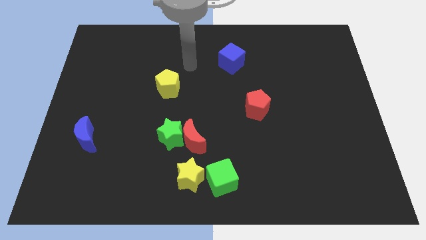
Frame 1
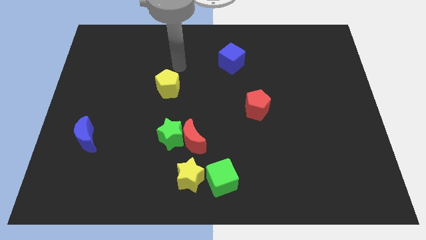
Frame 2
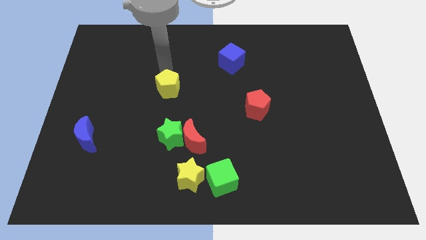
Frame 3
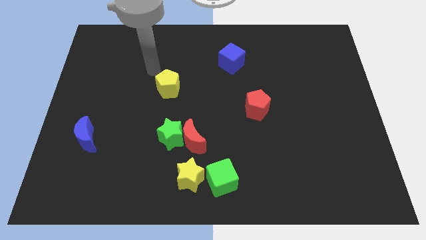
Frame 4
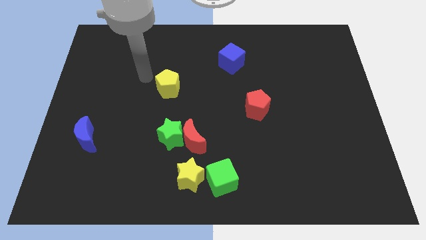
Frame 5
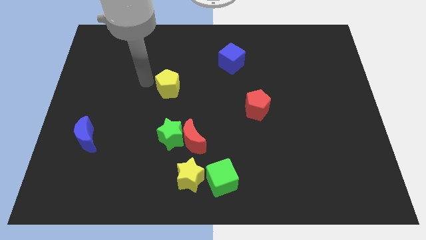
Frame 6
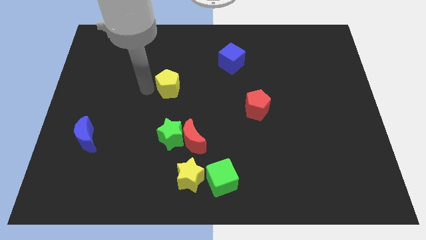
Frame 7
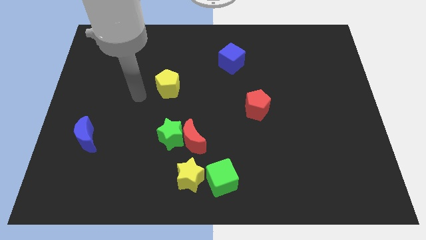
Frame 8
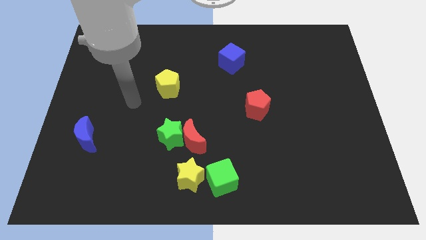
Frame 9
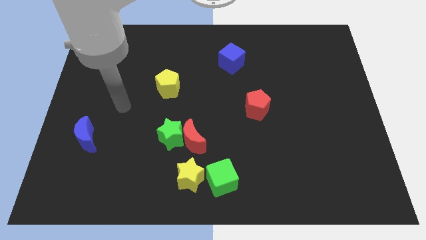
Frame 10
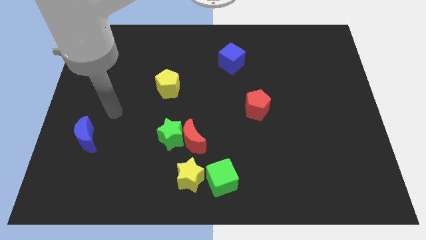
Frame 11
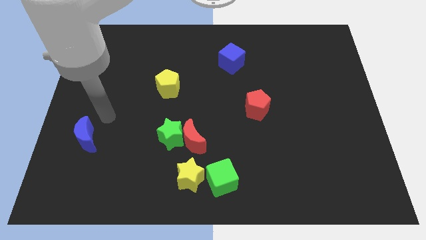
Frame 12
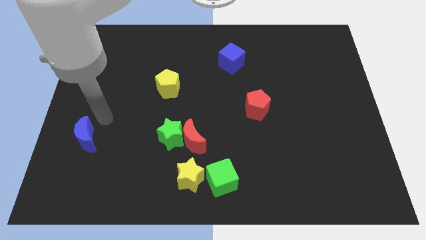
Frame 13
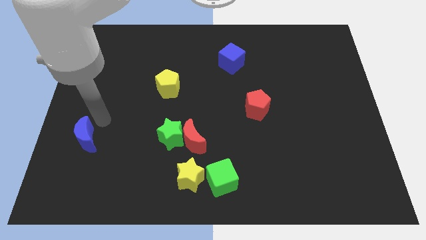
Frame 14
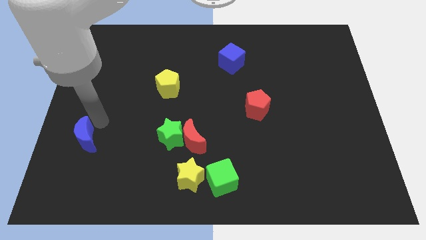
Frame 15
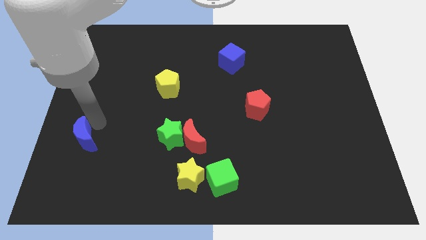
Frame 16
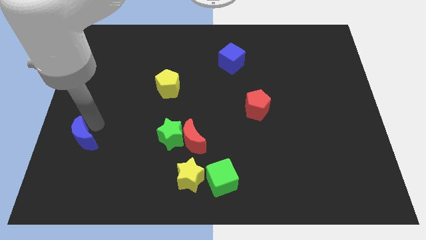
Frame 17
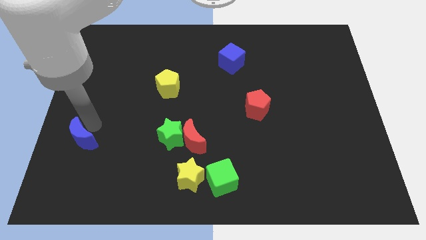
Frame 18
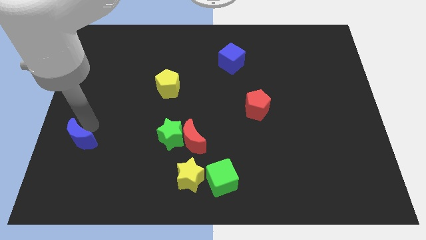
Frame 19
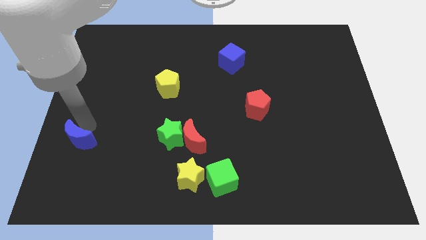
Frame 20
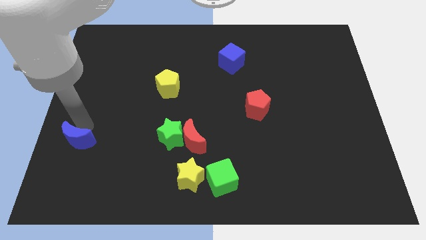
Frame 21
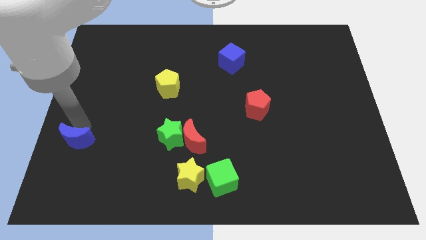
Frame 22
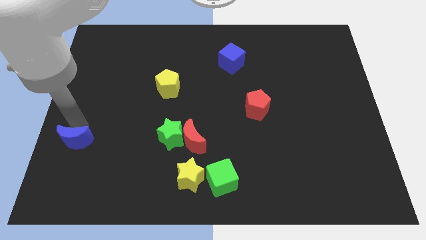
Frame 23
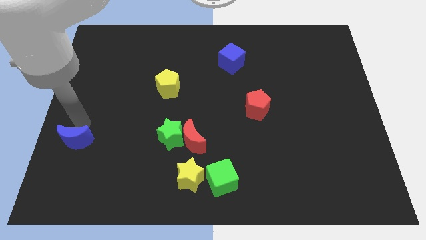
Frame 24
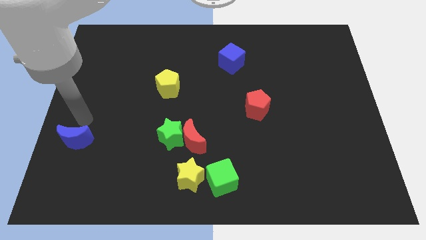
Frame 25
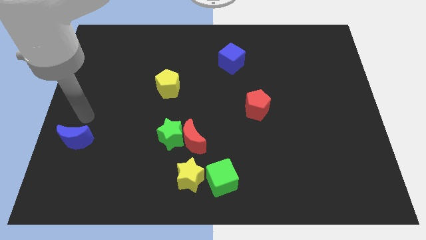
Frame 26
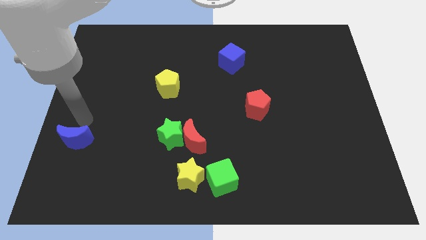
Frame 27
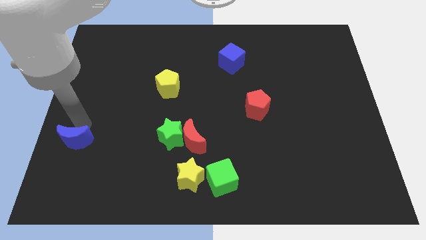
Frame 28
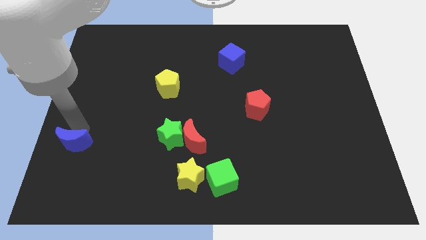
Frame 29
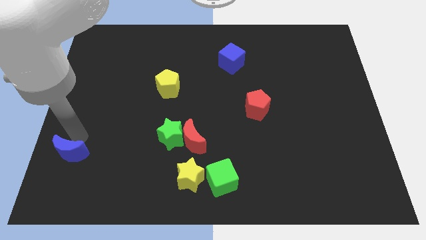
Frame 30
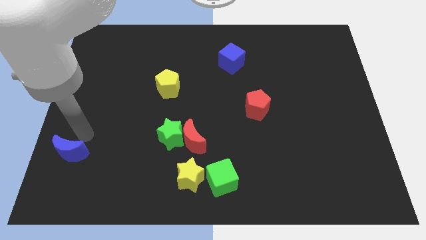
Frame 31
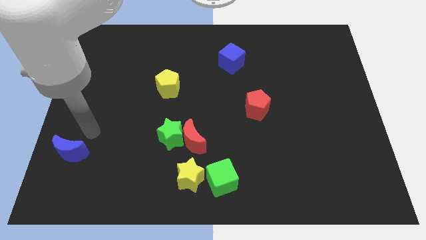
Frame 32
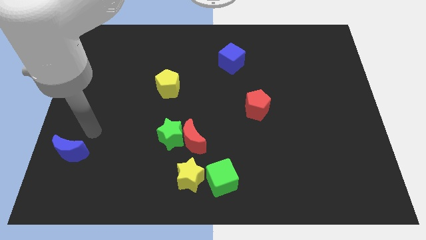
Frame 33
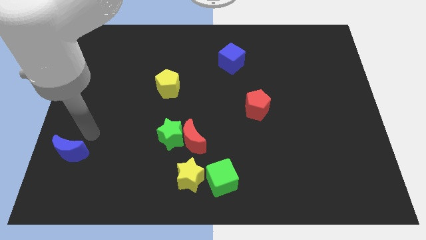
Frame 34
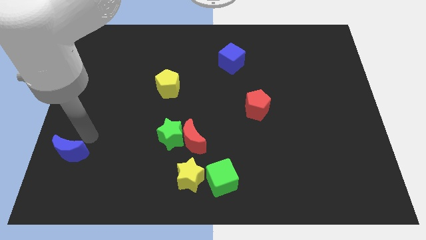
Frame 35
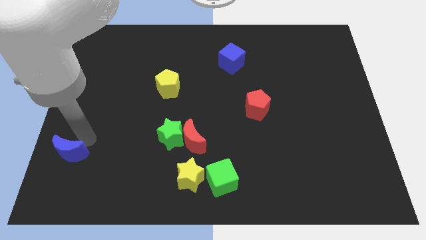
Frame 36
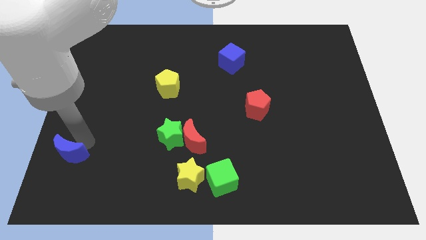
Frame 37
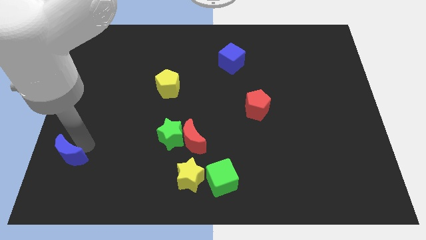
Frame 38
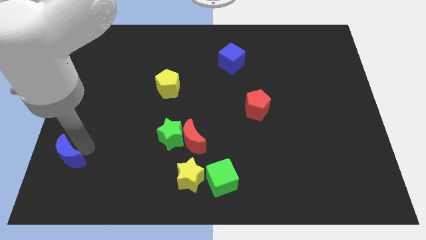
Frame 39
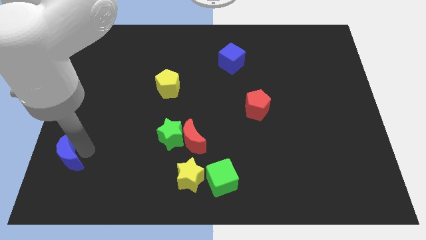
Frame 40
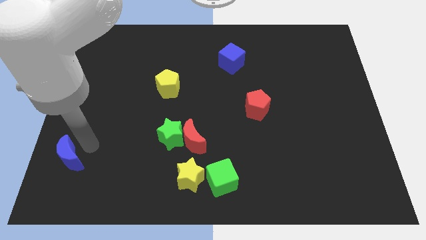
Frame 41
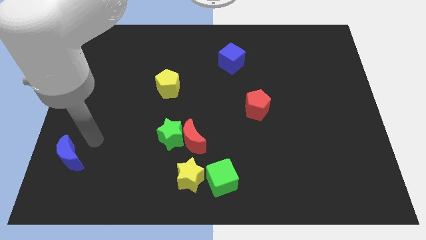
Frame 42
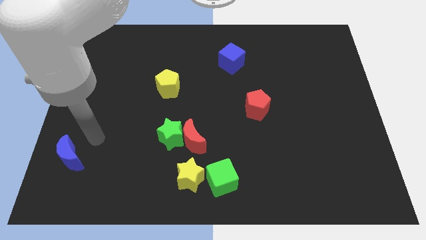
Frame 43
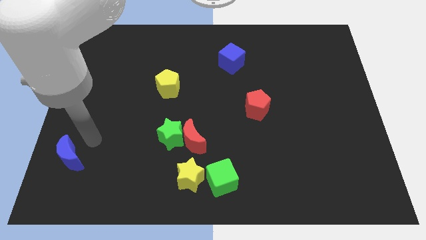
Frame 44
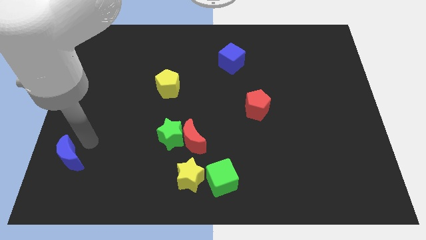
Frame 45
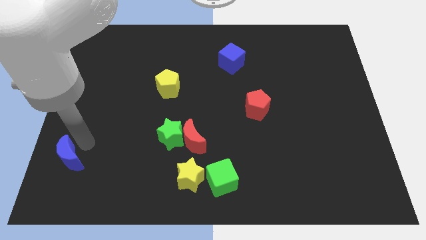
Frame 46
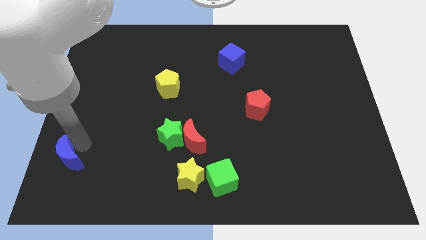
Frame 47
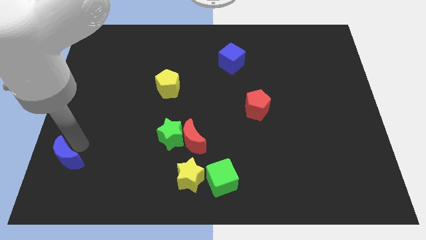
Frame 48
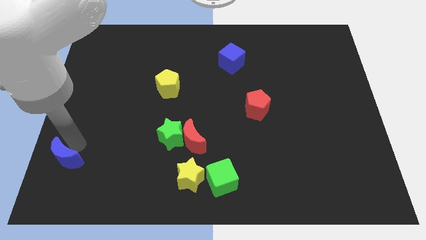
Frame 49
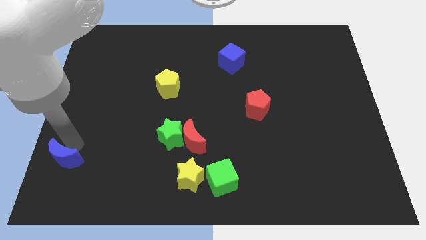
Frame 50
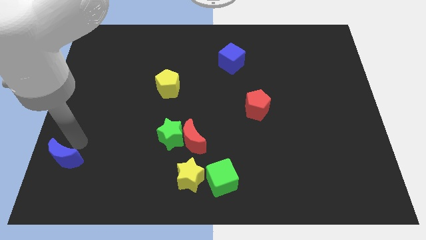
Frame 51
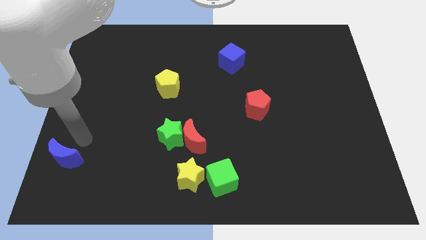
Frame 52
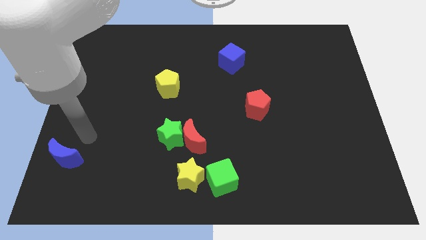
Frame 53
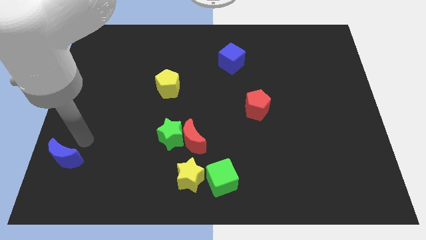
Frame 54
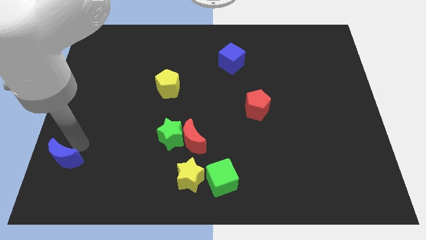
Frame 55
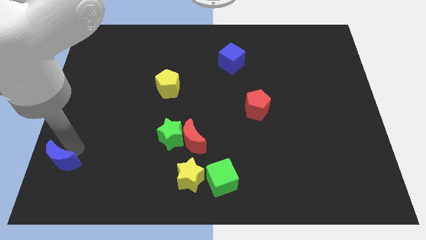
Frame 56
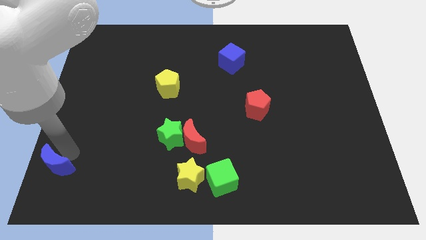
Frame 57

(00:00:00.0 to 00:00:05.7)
put the blue moon to the lower left corner
